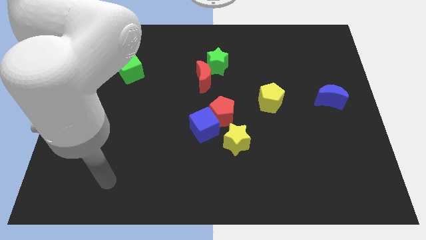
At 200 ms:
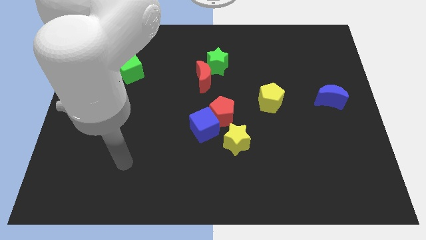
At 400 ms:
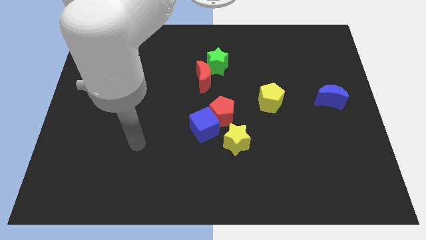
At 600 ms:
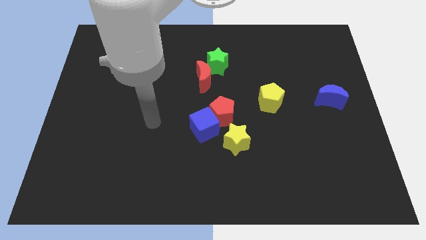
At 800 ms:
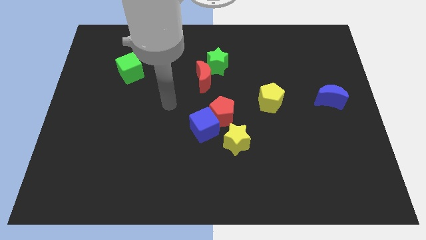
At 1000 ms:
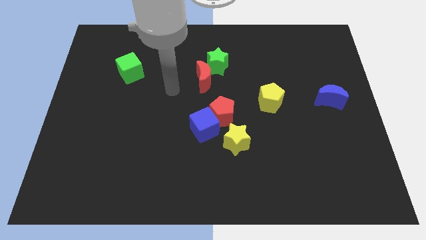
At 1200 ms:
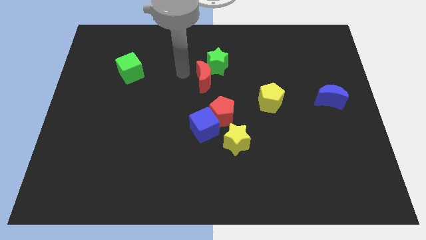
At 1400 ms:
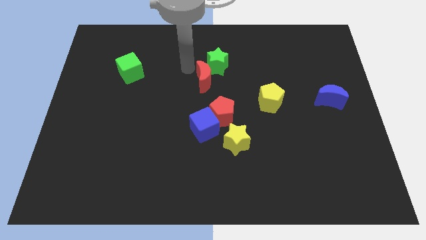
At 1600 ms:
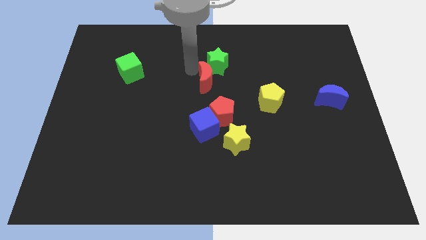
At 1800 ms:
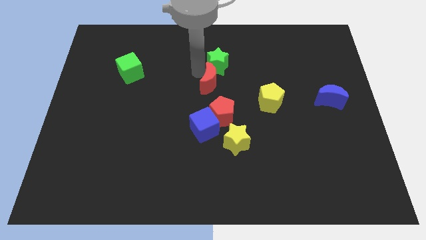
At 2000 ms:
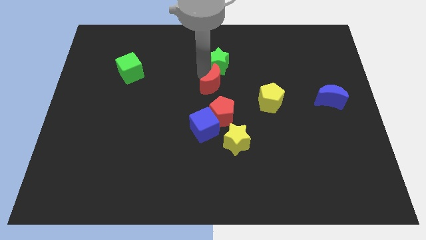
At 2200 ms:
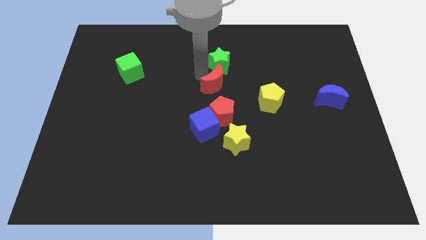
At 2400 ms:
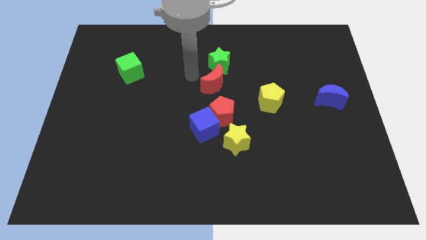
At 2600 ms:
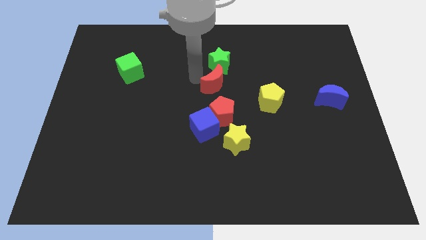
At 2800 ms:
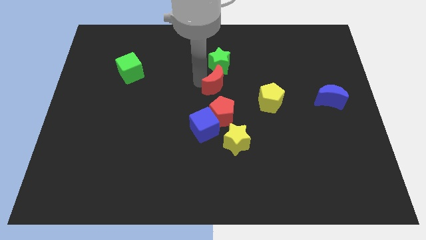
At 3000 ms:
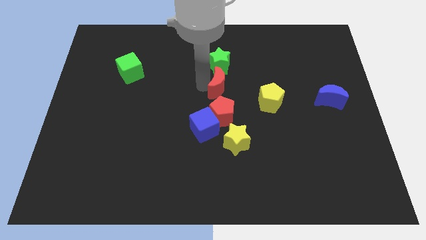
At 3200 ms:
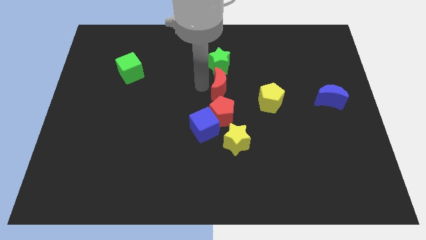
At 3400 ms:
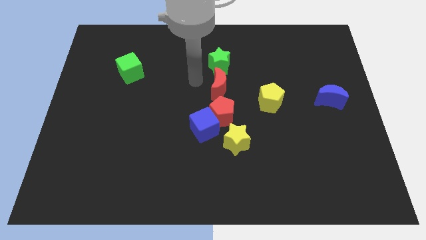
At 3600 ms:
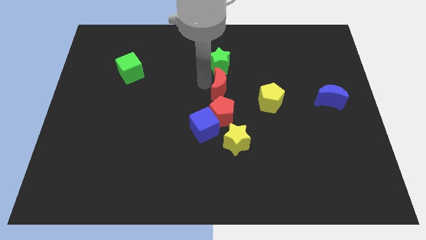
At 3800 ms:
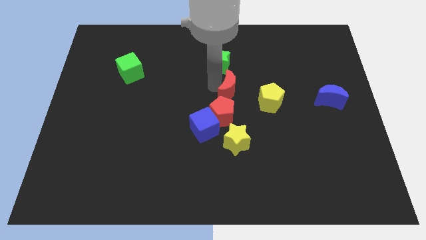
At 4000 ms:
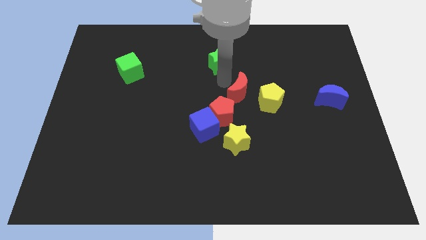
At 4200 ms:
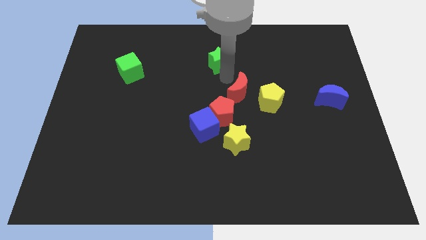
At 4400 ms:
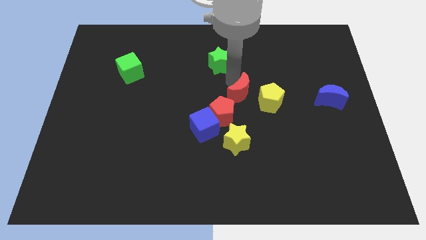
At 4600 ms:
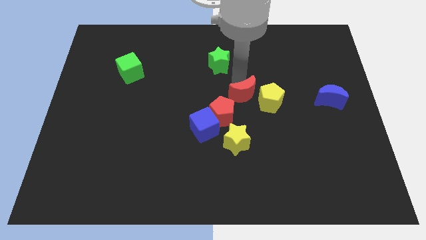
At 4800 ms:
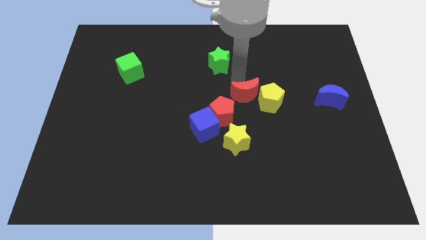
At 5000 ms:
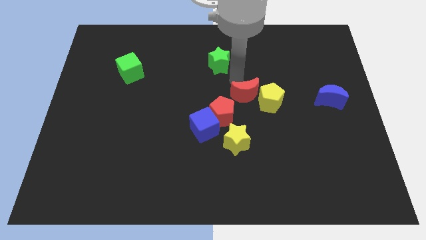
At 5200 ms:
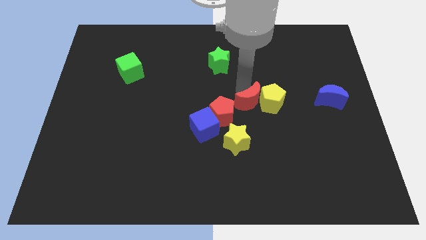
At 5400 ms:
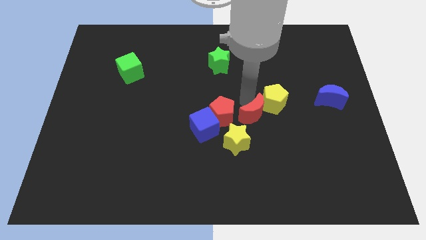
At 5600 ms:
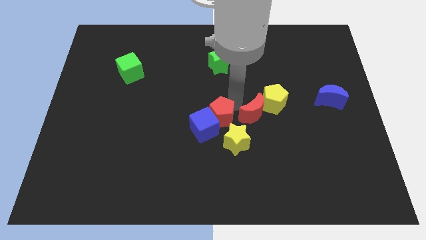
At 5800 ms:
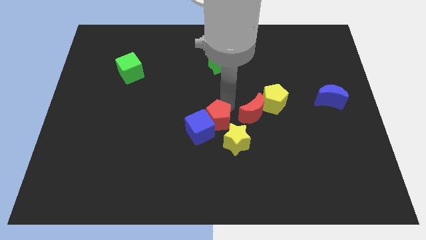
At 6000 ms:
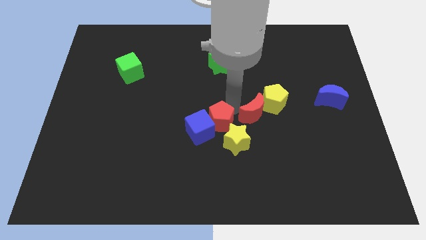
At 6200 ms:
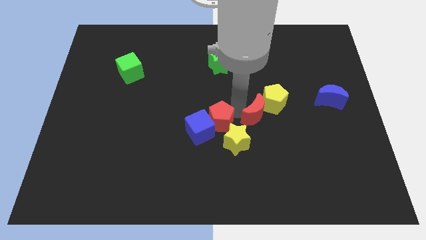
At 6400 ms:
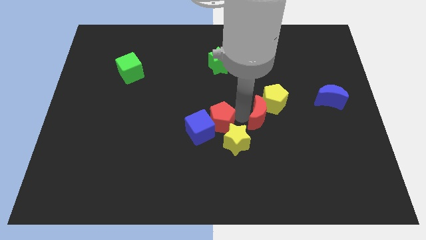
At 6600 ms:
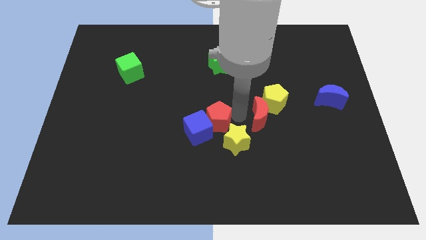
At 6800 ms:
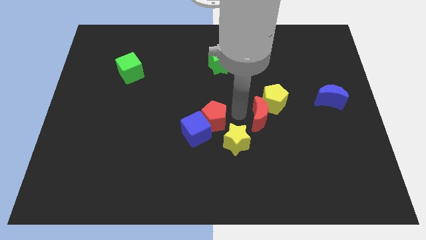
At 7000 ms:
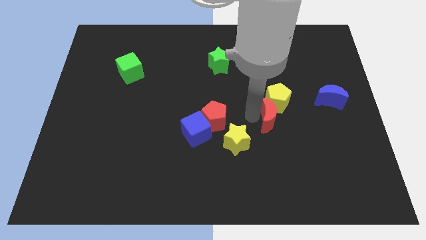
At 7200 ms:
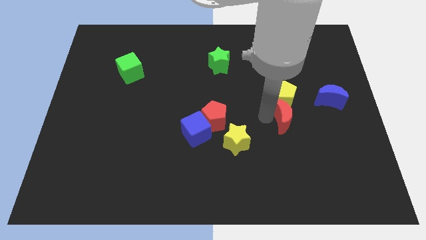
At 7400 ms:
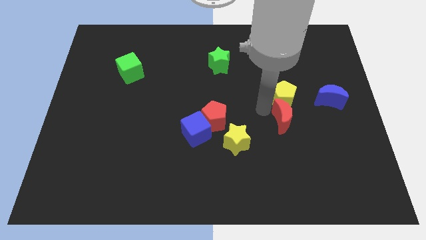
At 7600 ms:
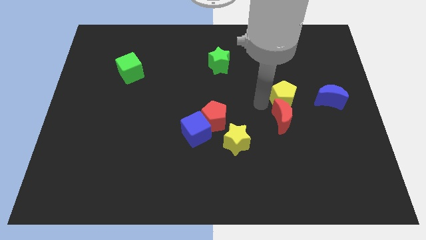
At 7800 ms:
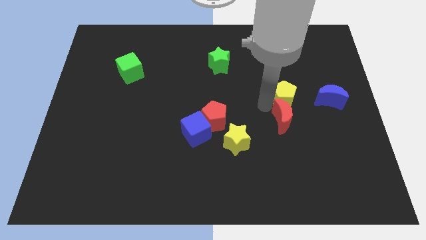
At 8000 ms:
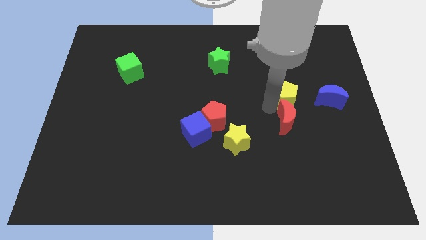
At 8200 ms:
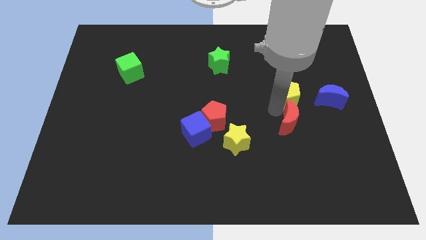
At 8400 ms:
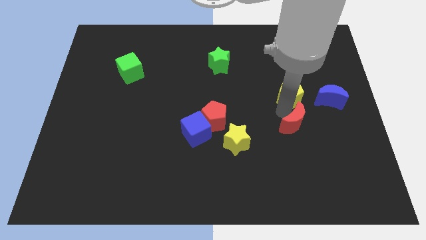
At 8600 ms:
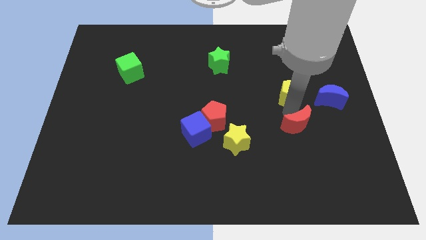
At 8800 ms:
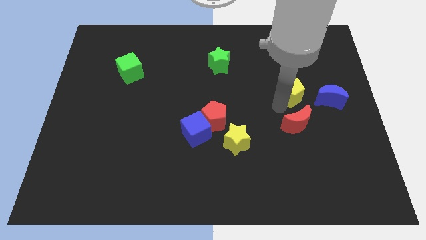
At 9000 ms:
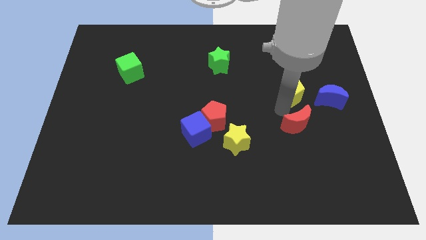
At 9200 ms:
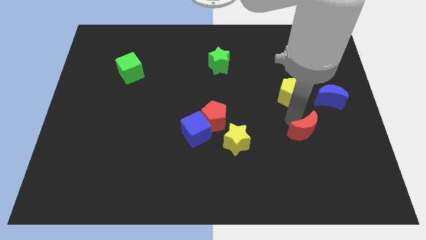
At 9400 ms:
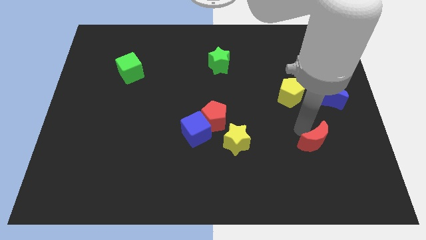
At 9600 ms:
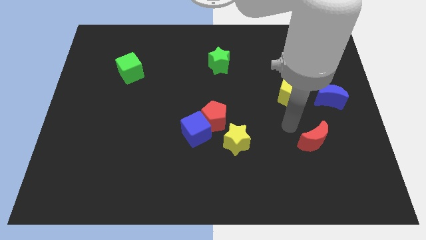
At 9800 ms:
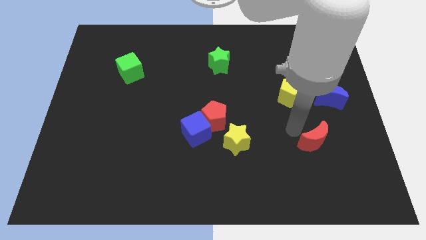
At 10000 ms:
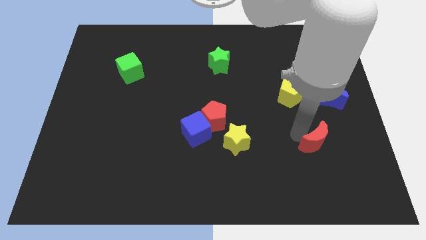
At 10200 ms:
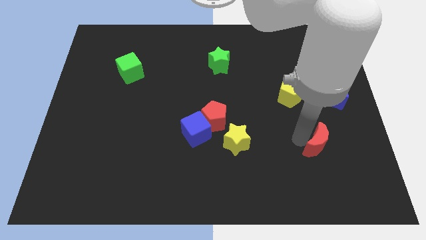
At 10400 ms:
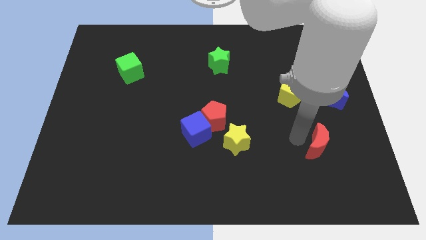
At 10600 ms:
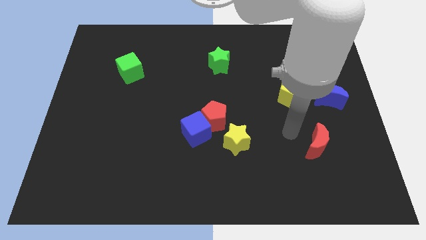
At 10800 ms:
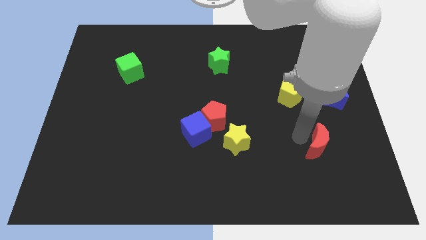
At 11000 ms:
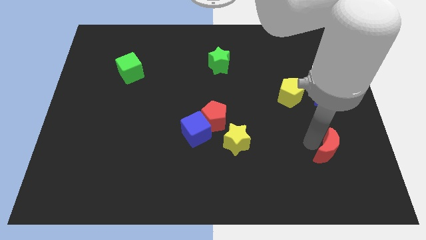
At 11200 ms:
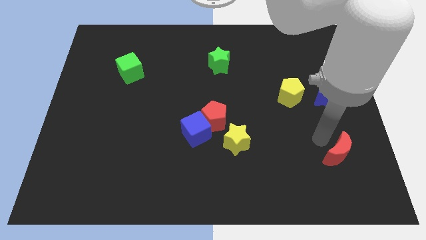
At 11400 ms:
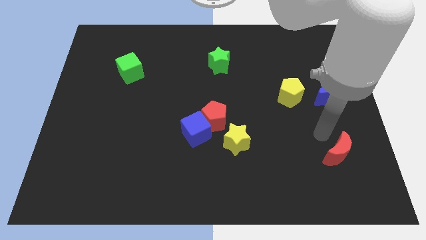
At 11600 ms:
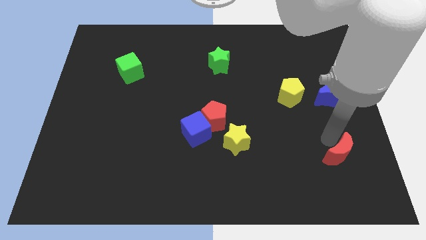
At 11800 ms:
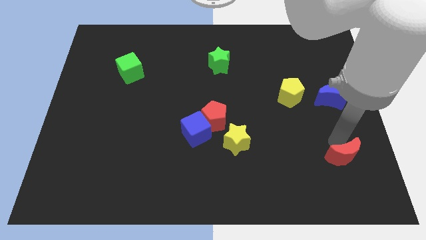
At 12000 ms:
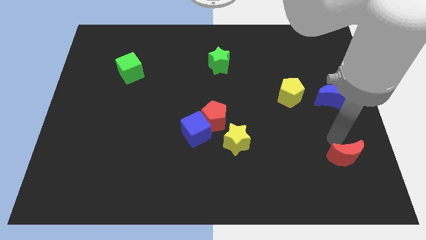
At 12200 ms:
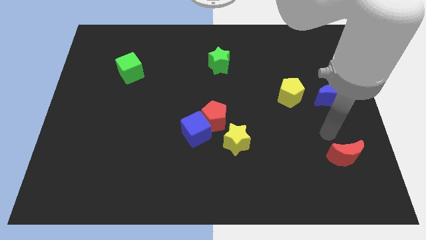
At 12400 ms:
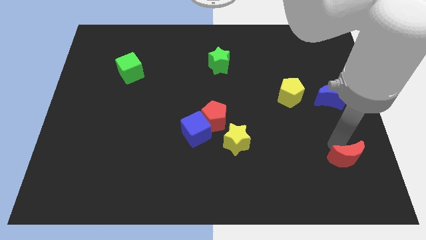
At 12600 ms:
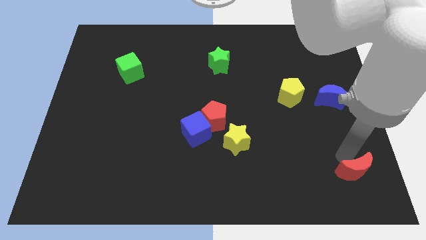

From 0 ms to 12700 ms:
put the red moon to the lower right corner
